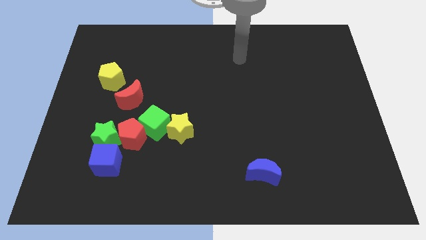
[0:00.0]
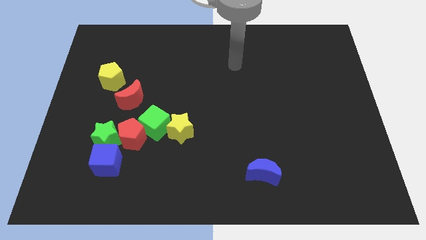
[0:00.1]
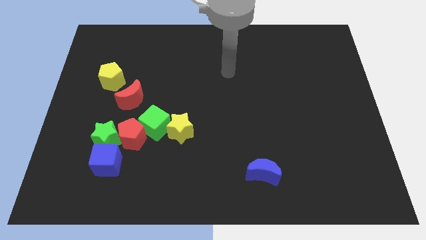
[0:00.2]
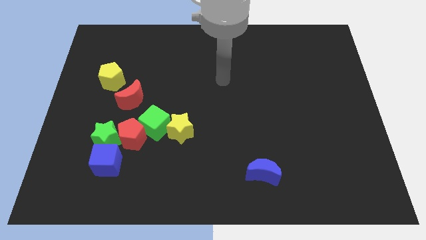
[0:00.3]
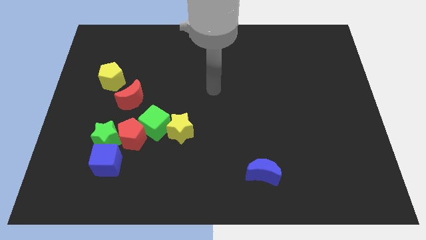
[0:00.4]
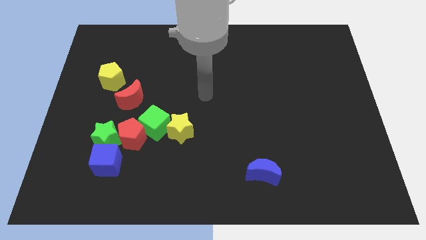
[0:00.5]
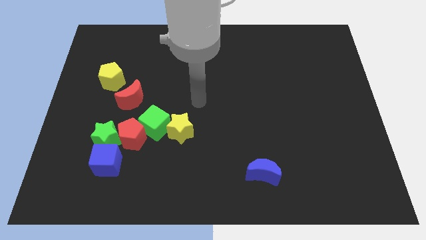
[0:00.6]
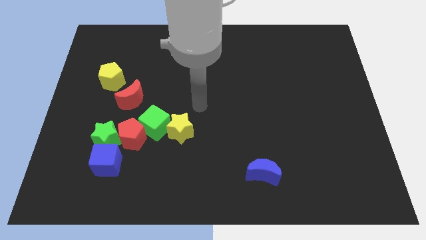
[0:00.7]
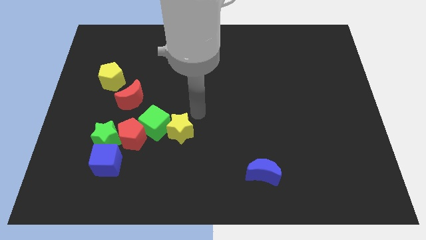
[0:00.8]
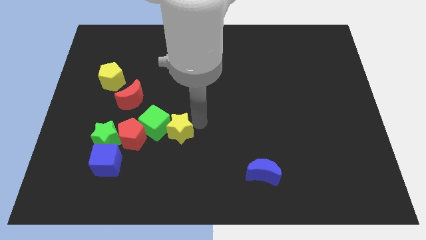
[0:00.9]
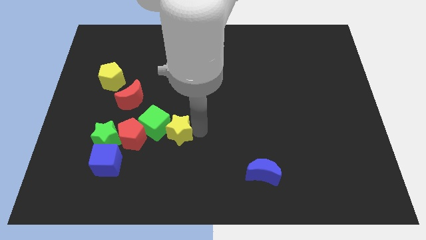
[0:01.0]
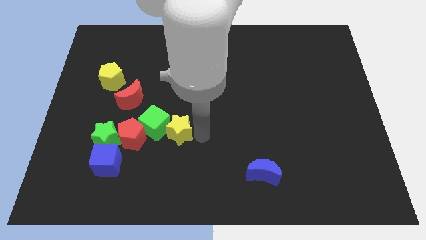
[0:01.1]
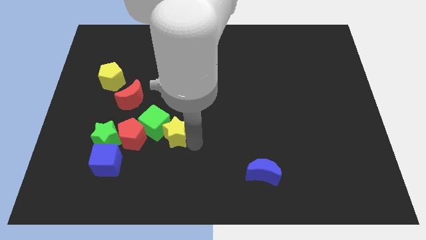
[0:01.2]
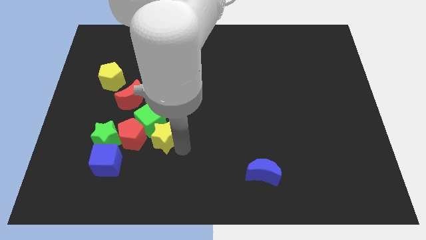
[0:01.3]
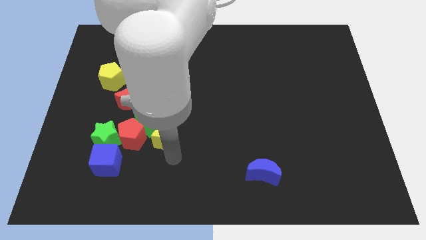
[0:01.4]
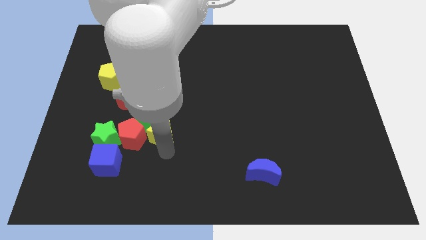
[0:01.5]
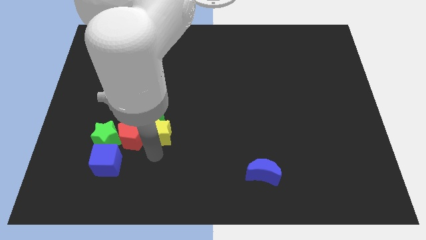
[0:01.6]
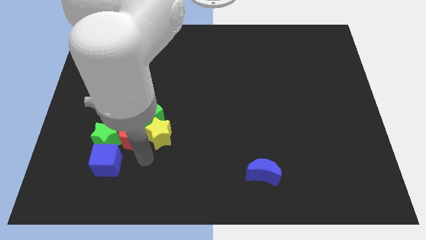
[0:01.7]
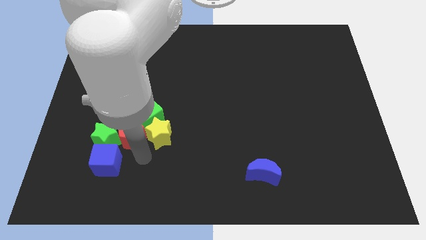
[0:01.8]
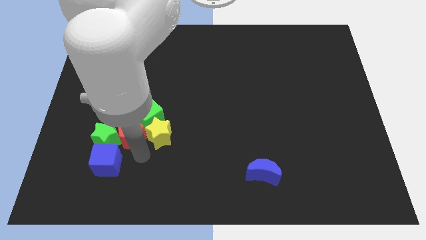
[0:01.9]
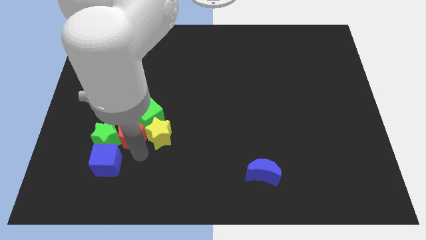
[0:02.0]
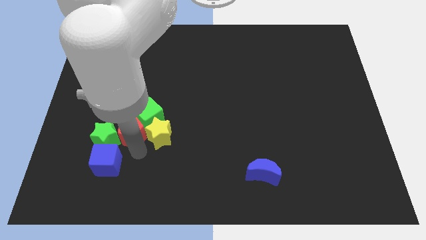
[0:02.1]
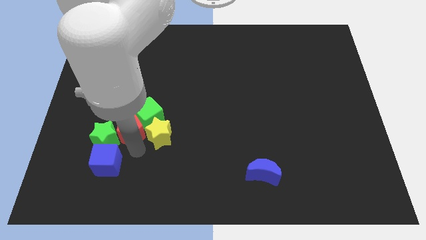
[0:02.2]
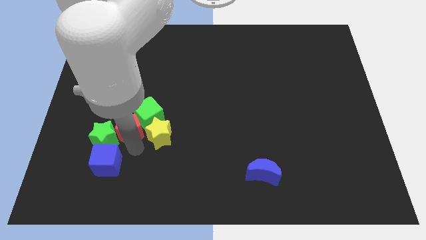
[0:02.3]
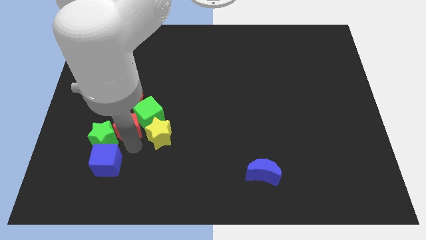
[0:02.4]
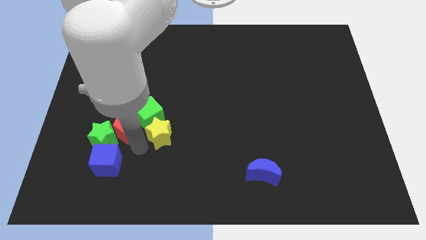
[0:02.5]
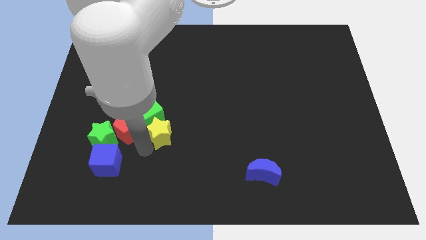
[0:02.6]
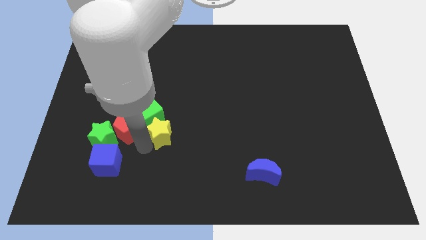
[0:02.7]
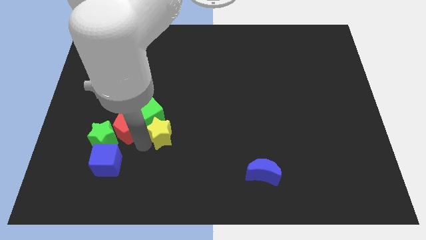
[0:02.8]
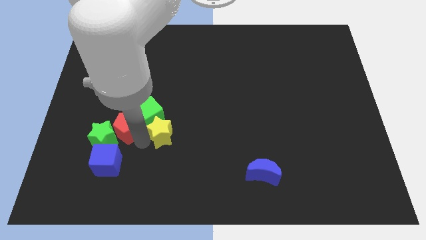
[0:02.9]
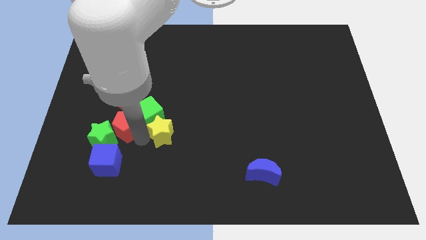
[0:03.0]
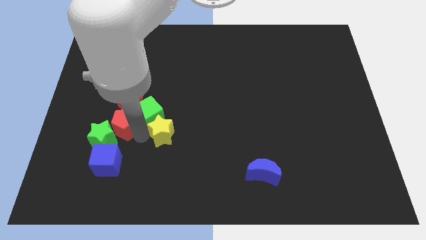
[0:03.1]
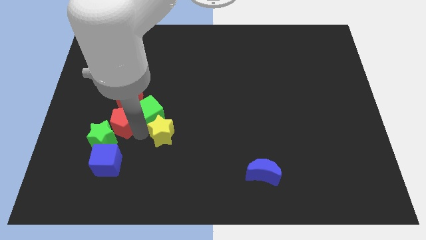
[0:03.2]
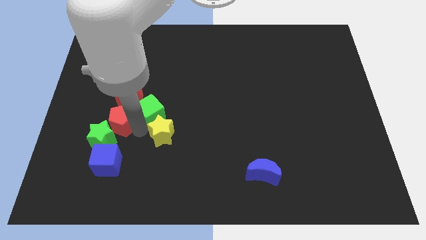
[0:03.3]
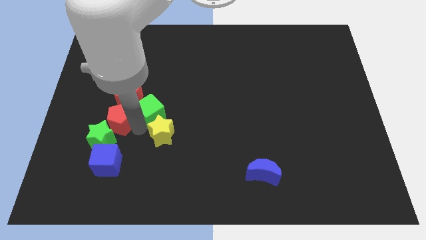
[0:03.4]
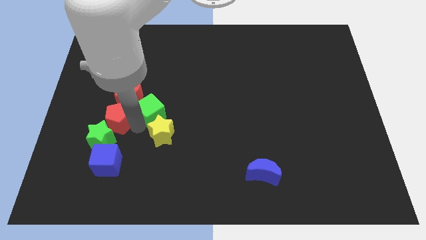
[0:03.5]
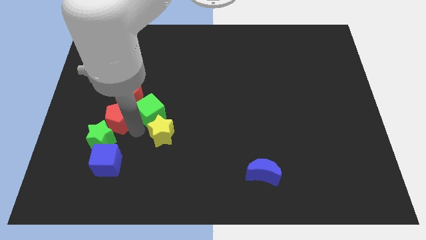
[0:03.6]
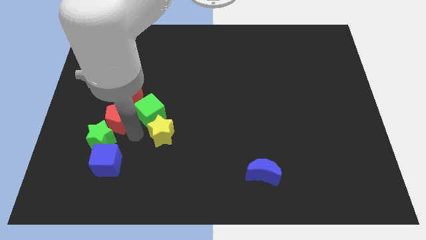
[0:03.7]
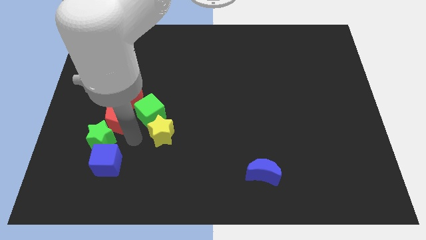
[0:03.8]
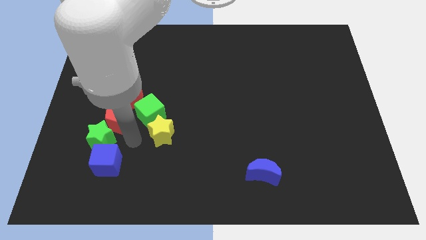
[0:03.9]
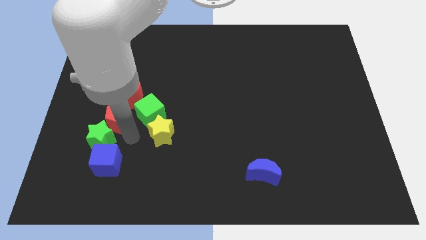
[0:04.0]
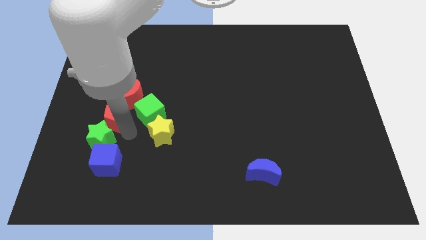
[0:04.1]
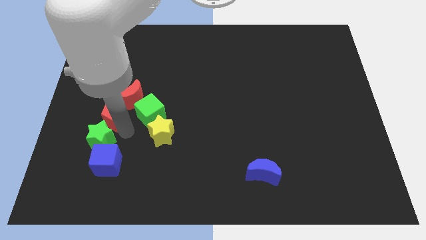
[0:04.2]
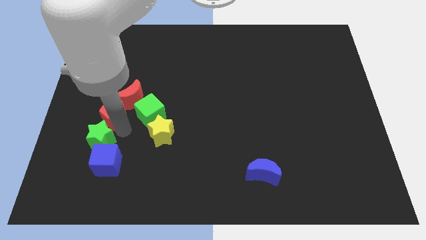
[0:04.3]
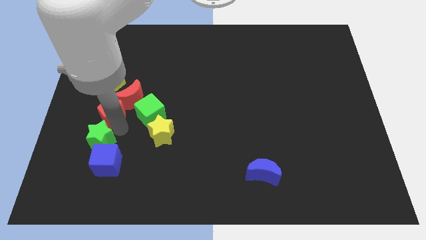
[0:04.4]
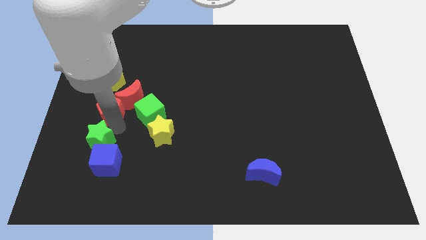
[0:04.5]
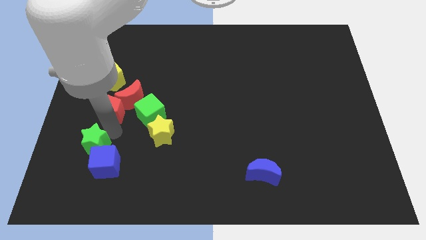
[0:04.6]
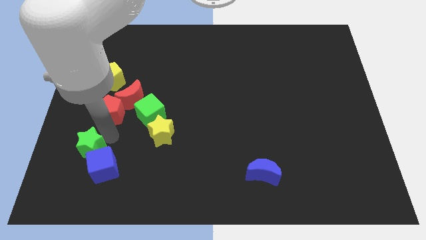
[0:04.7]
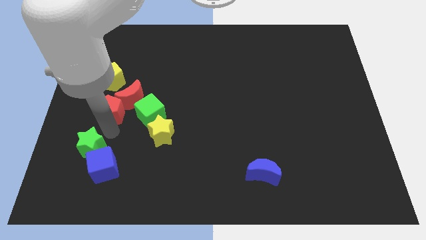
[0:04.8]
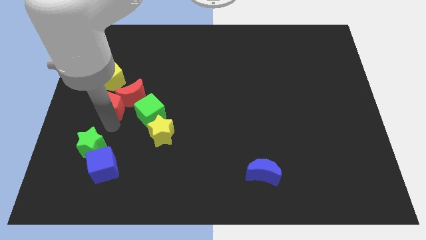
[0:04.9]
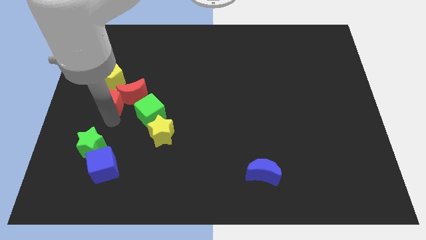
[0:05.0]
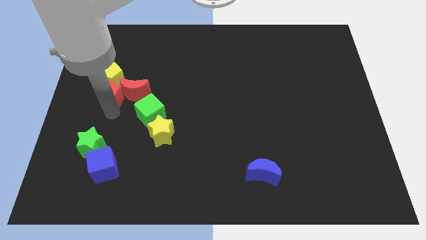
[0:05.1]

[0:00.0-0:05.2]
move the red pentagon towards the yellow pentagon

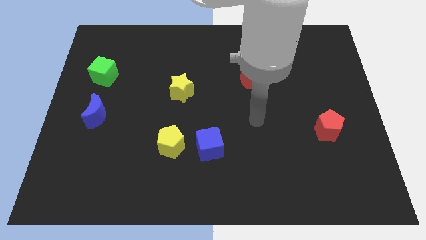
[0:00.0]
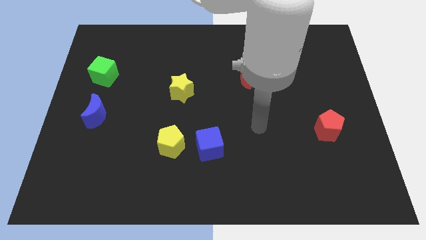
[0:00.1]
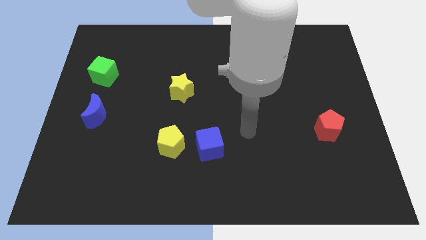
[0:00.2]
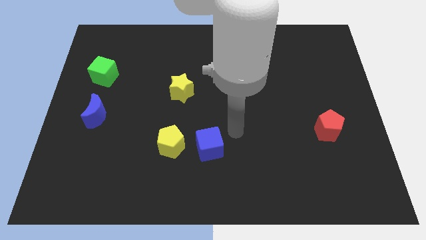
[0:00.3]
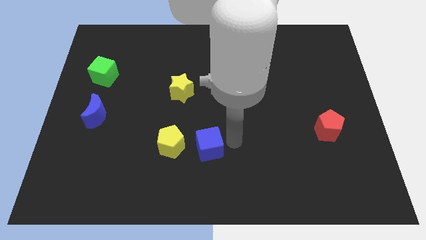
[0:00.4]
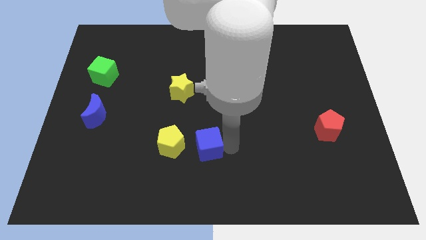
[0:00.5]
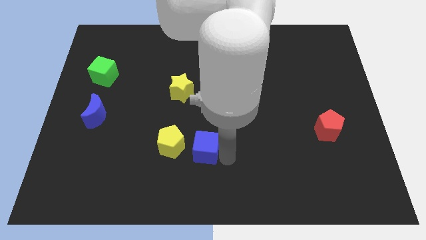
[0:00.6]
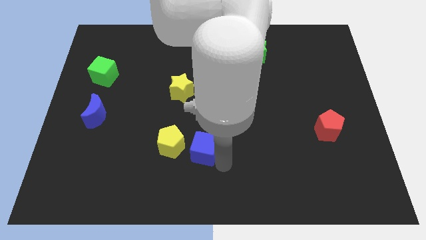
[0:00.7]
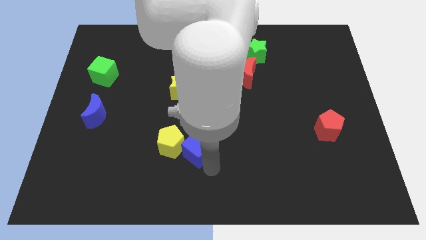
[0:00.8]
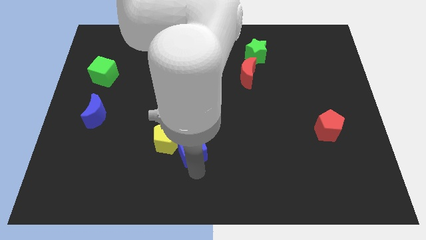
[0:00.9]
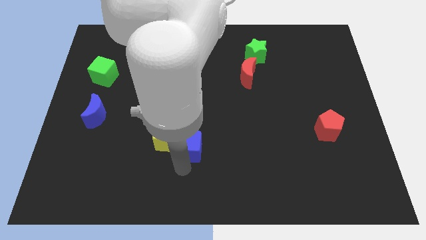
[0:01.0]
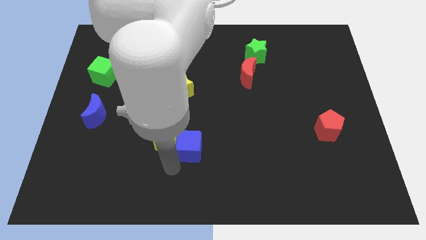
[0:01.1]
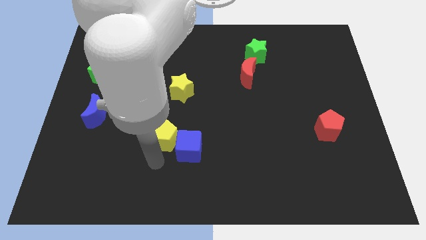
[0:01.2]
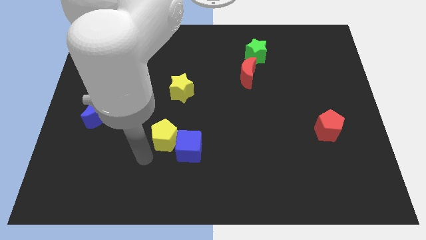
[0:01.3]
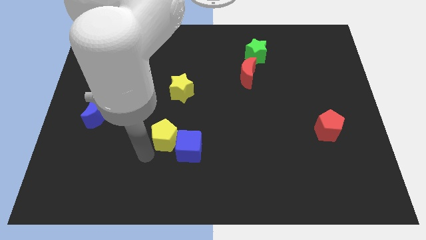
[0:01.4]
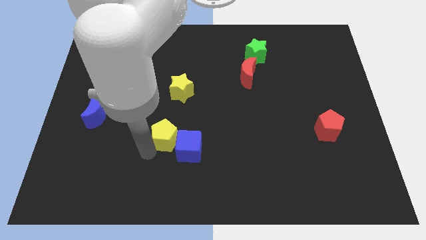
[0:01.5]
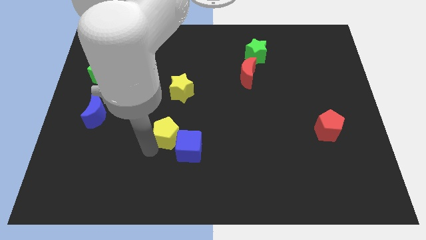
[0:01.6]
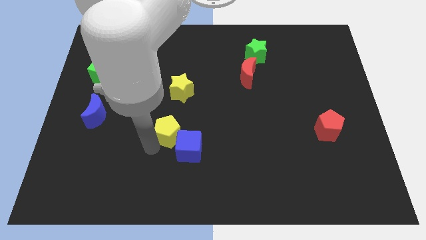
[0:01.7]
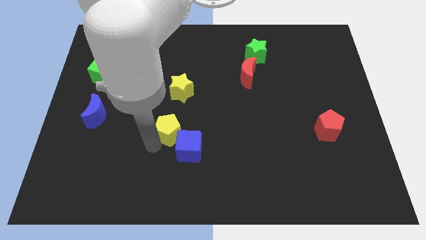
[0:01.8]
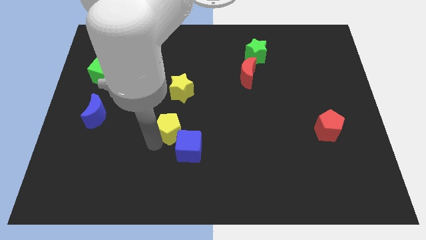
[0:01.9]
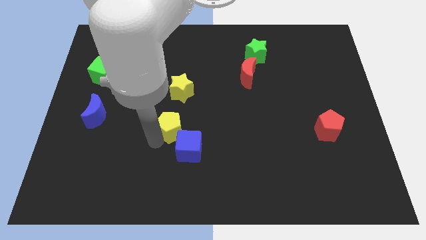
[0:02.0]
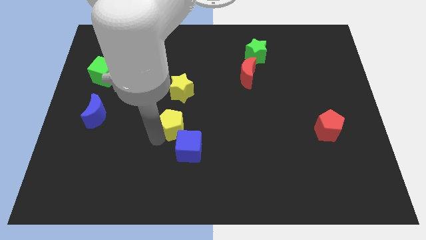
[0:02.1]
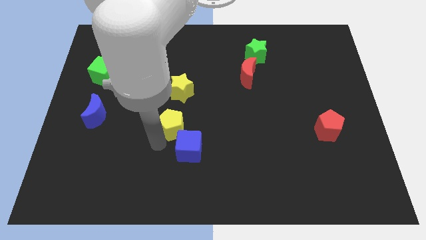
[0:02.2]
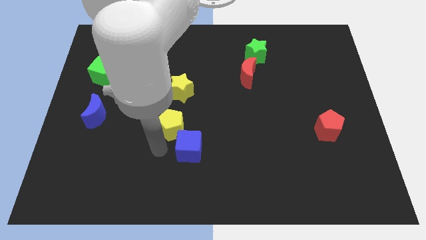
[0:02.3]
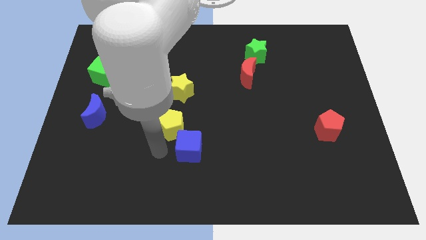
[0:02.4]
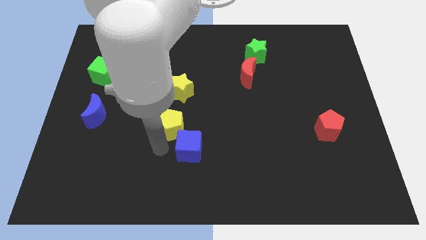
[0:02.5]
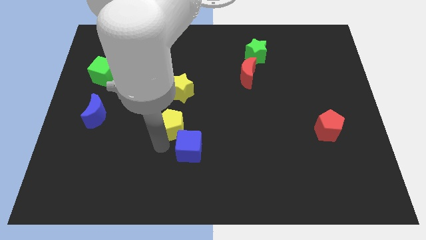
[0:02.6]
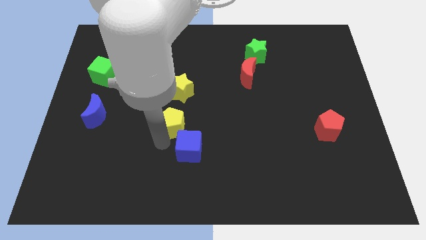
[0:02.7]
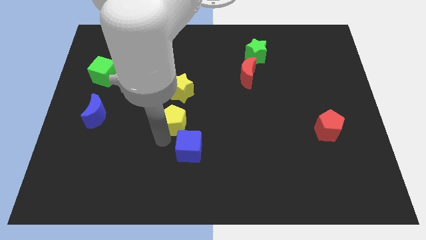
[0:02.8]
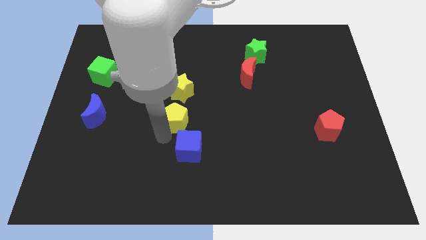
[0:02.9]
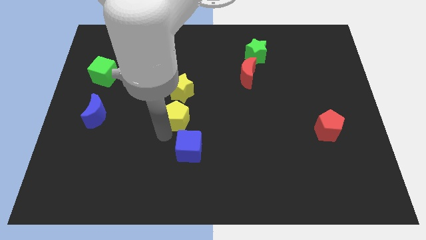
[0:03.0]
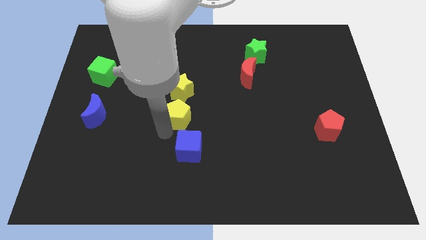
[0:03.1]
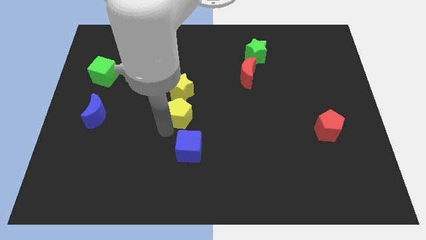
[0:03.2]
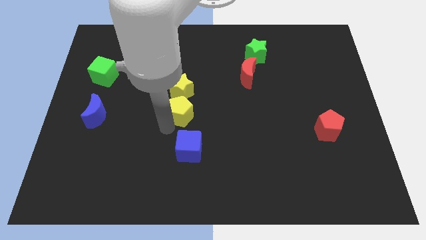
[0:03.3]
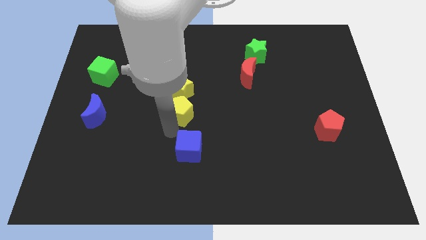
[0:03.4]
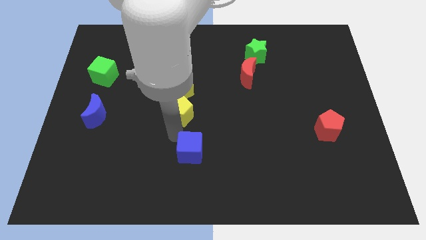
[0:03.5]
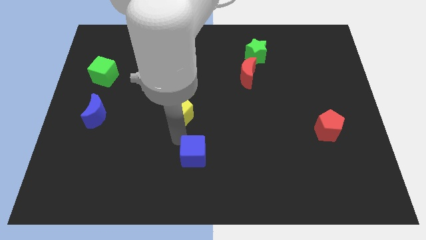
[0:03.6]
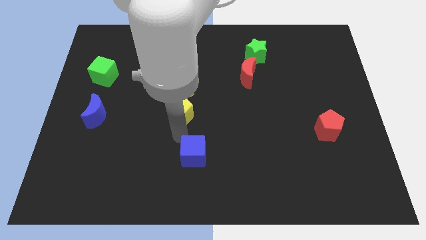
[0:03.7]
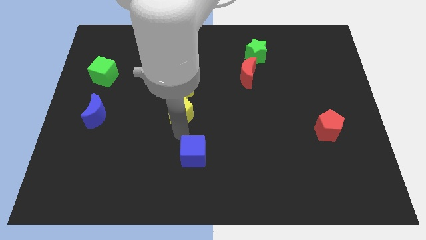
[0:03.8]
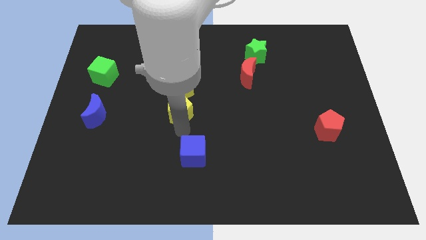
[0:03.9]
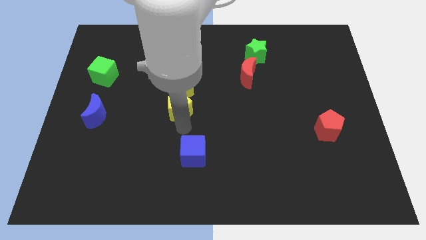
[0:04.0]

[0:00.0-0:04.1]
move the yellow pentagon close to the yellow star
